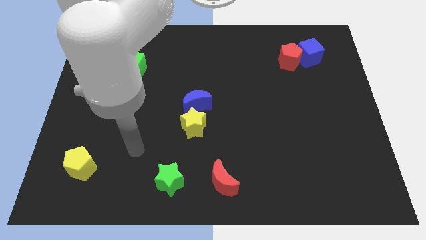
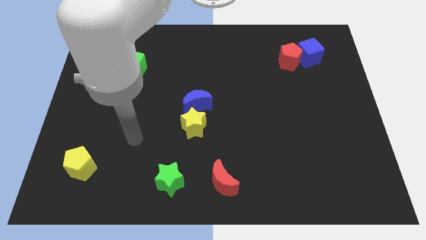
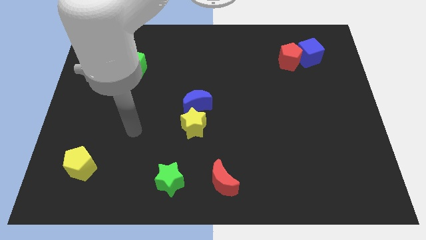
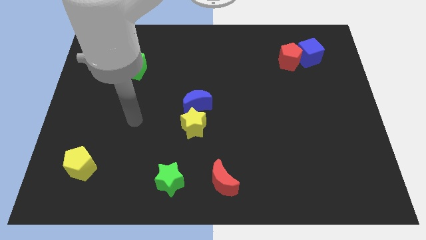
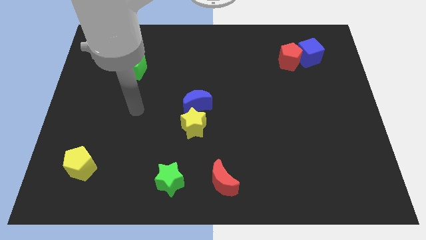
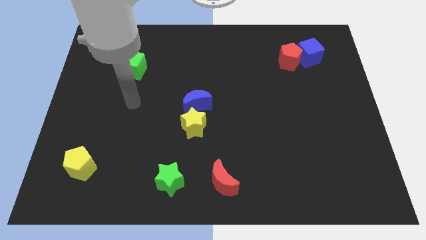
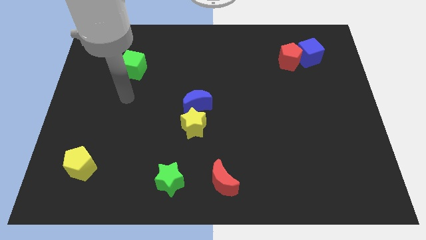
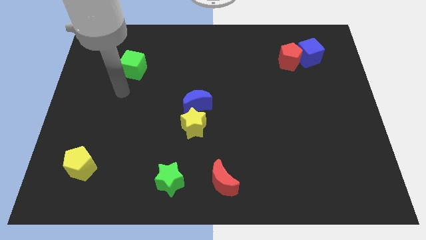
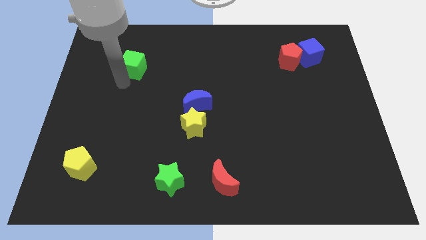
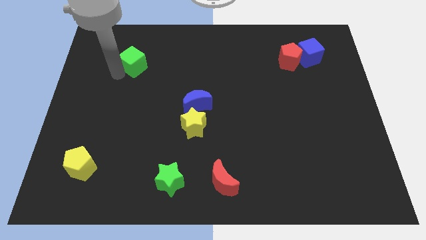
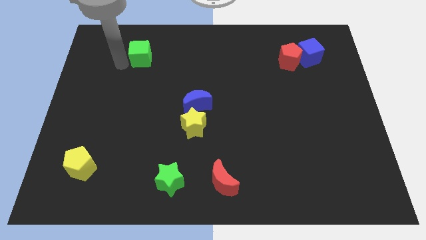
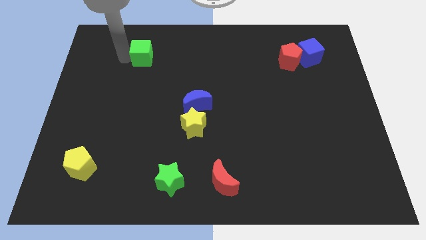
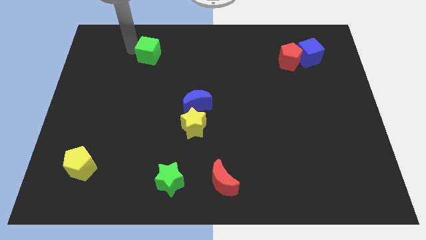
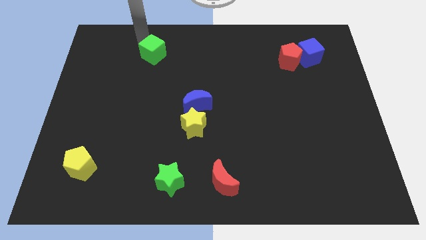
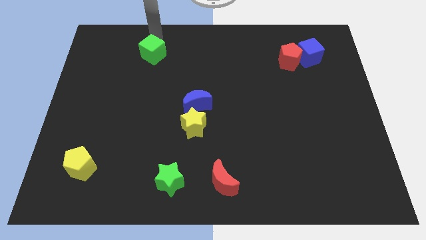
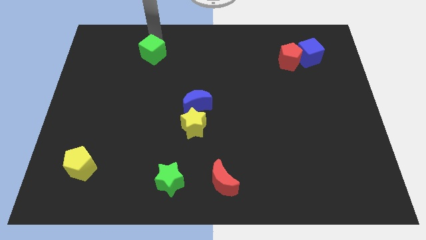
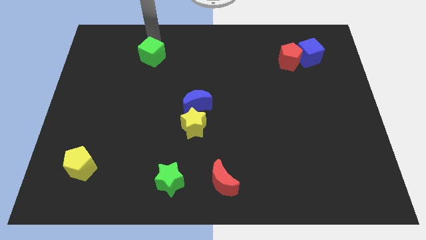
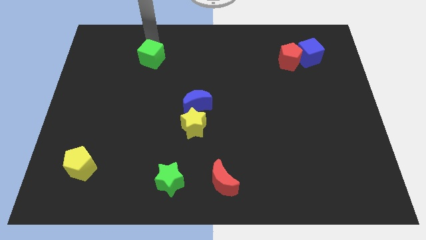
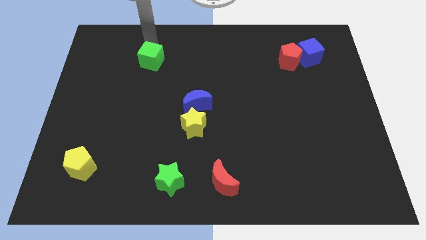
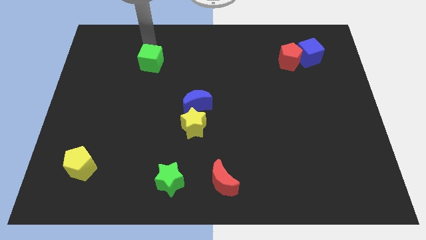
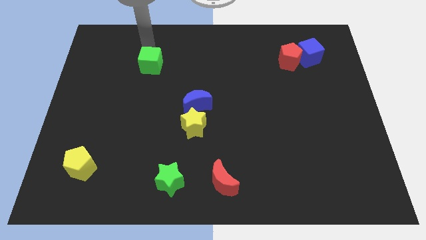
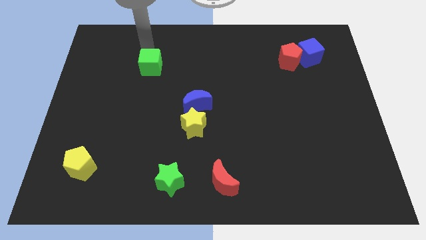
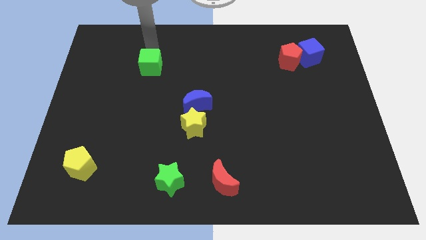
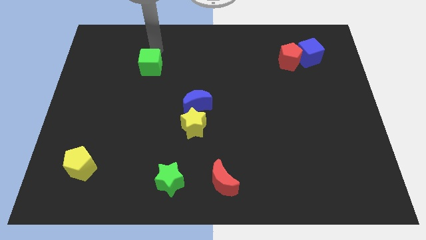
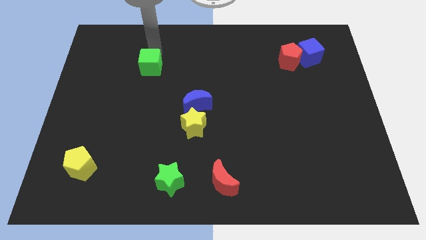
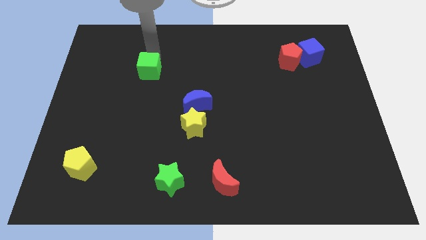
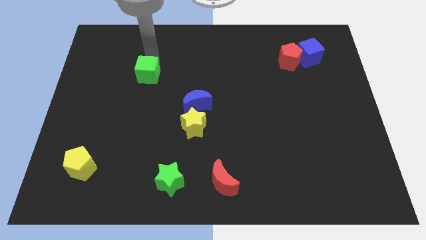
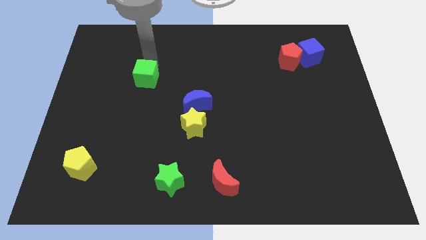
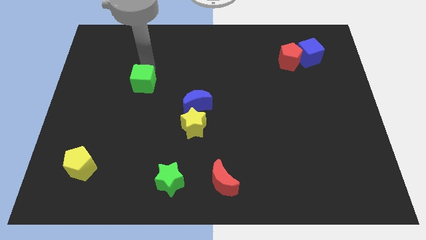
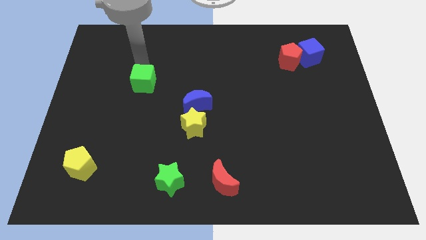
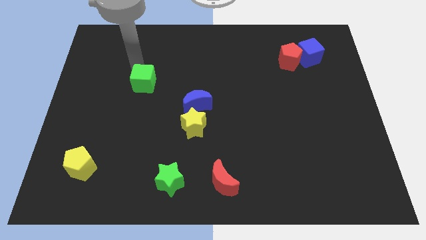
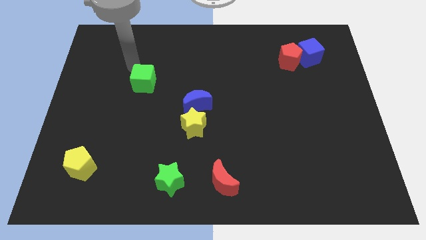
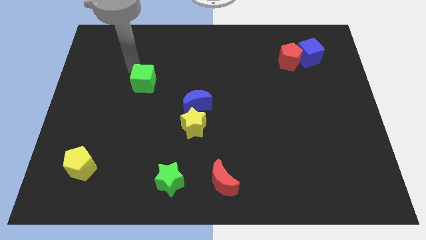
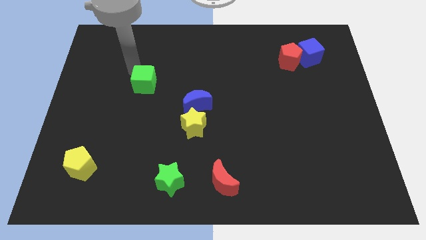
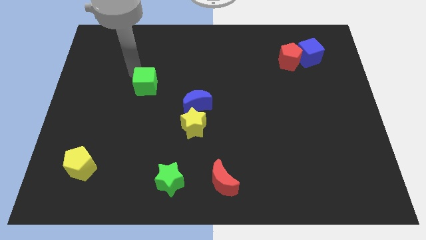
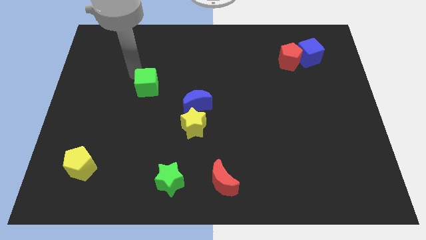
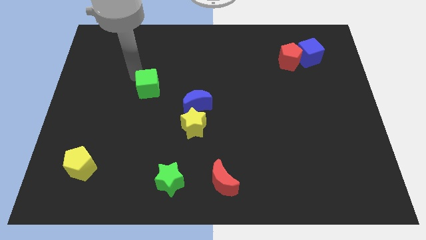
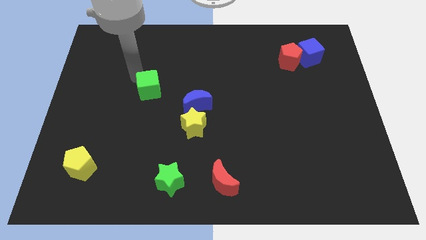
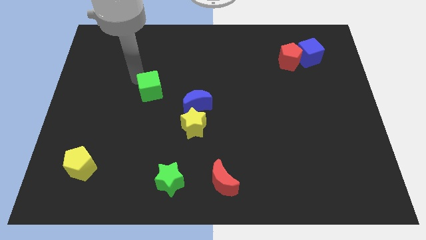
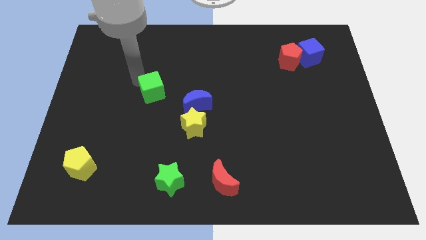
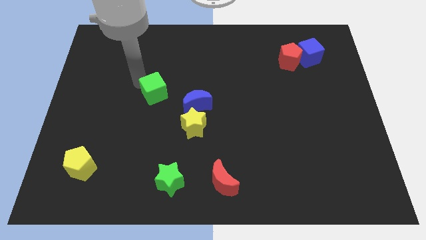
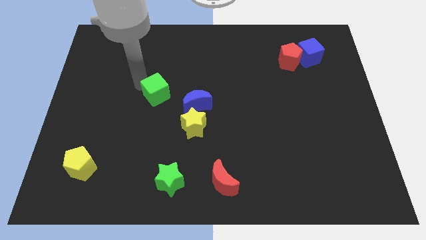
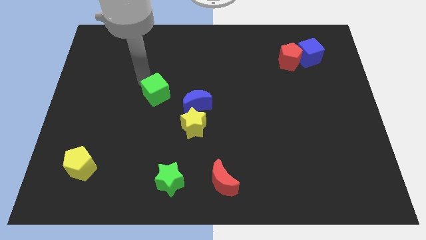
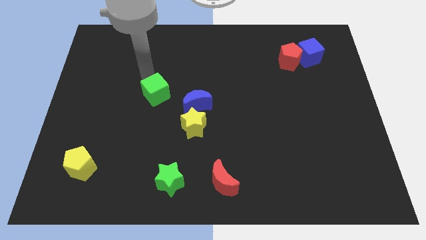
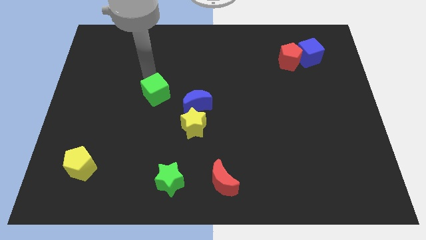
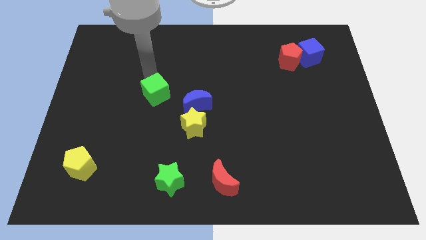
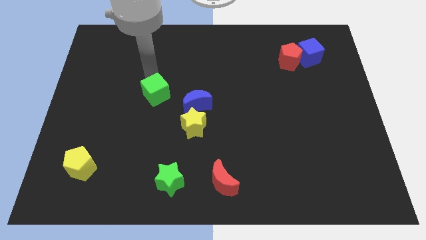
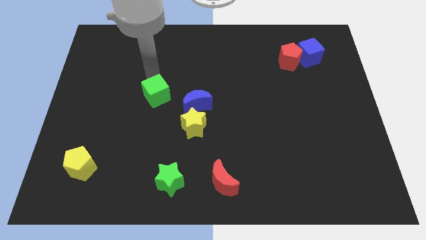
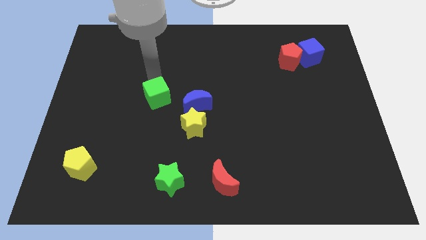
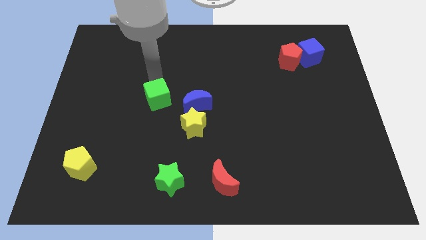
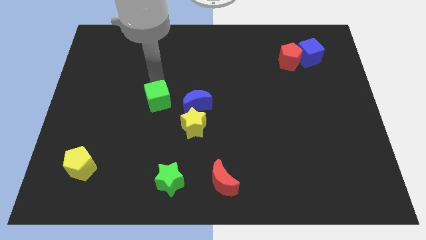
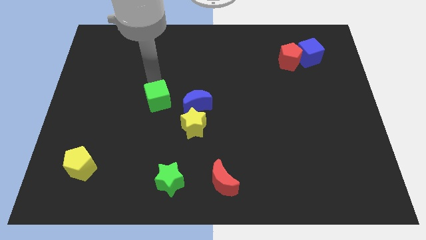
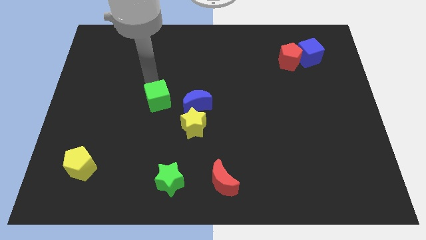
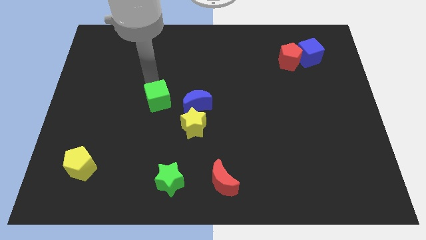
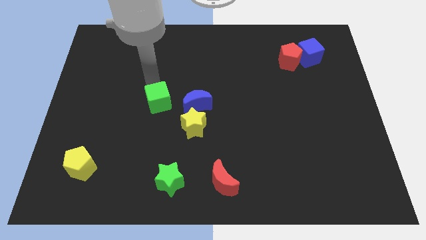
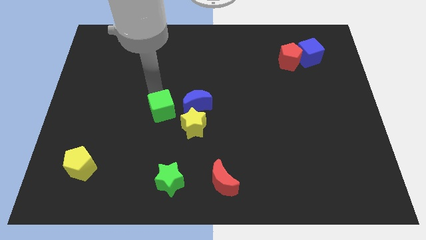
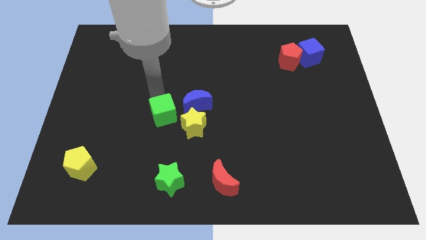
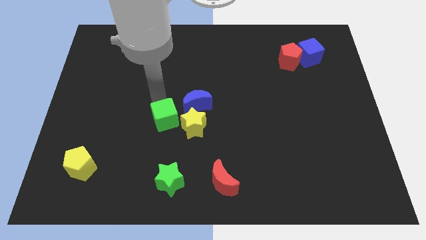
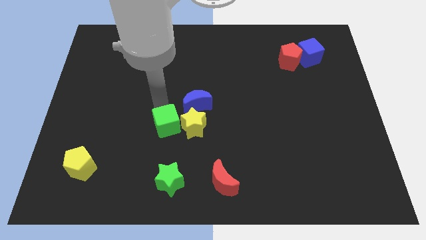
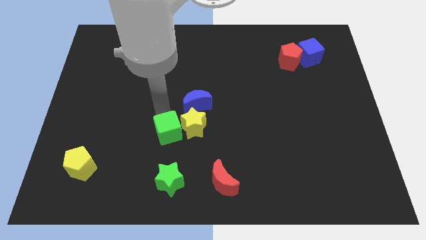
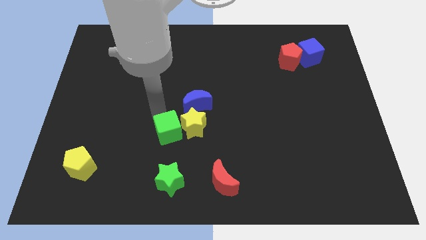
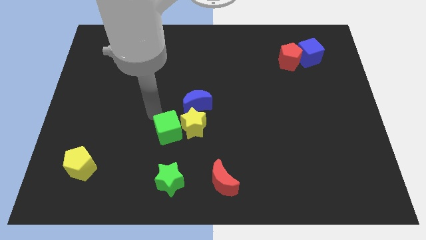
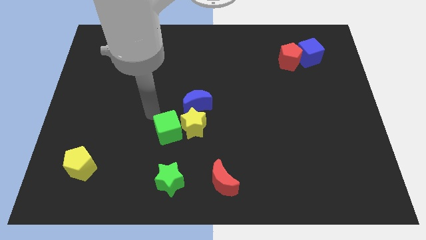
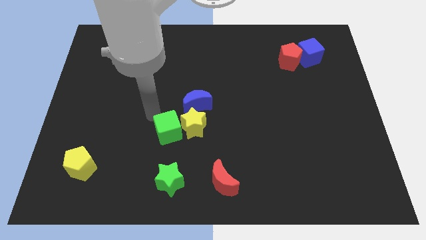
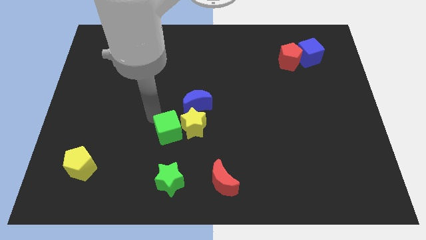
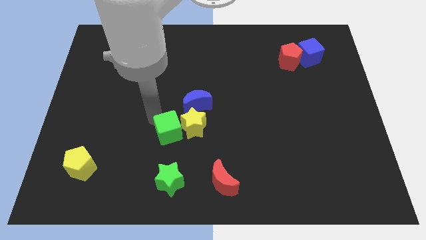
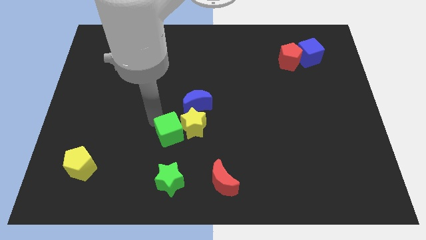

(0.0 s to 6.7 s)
push the green cube down and then to the right

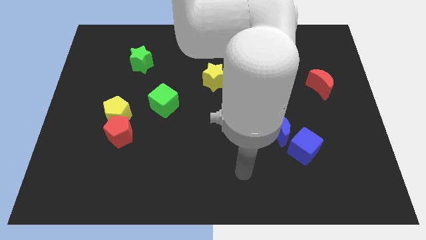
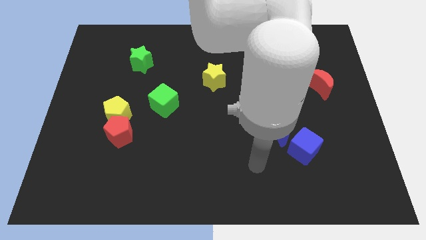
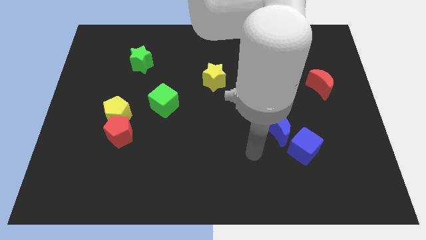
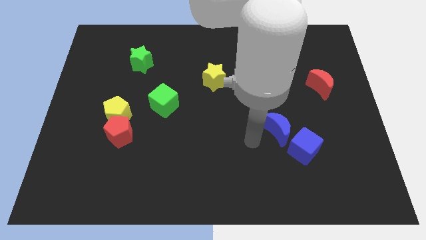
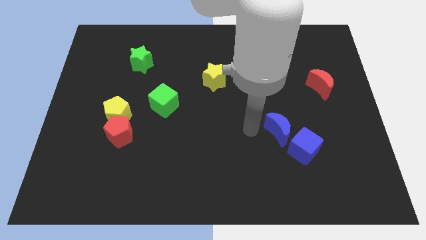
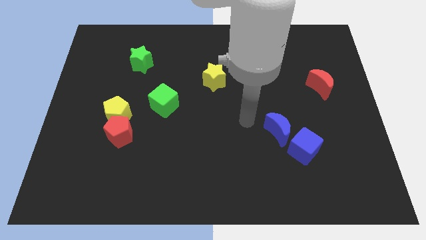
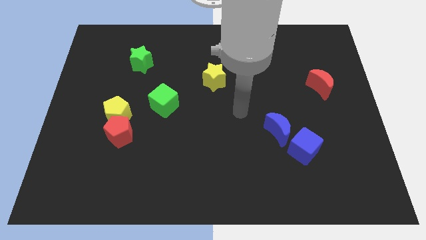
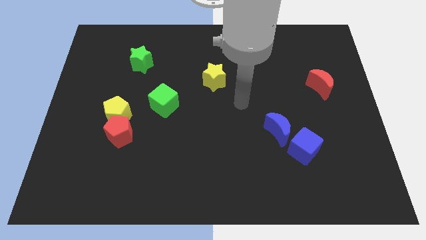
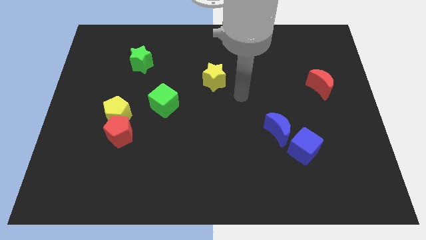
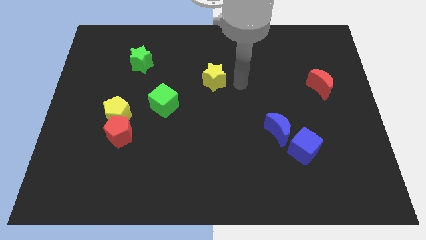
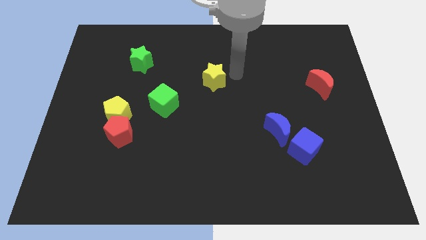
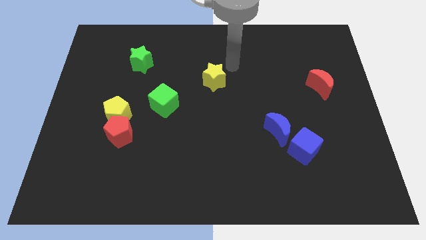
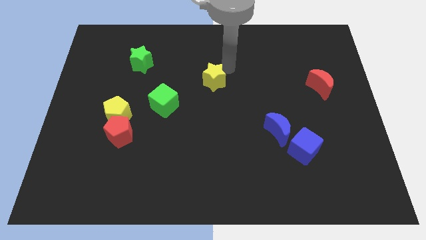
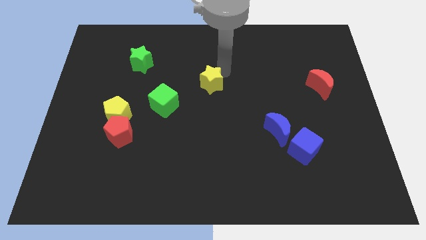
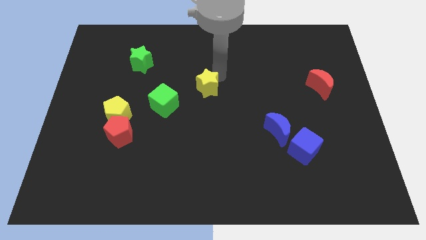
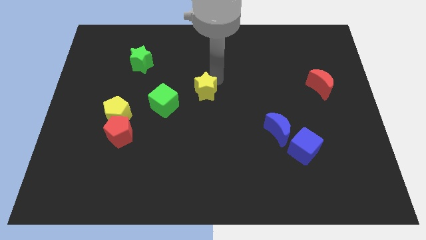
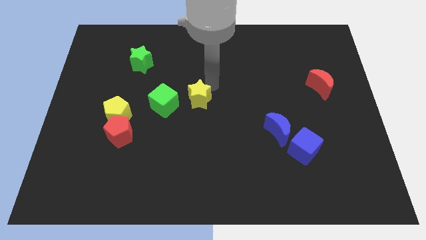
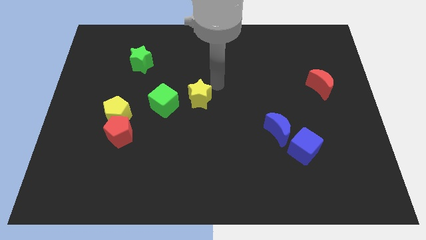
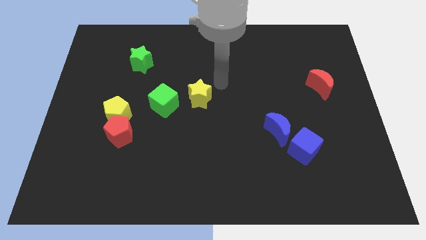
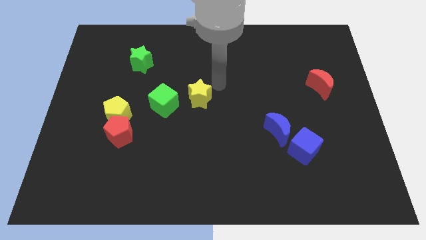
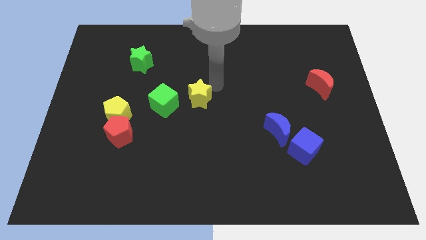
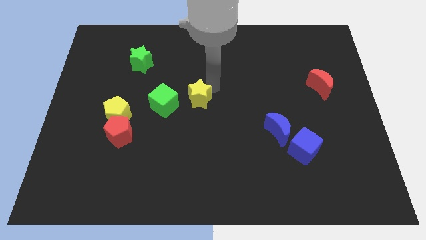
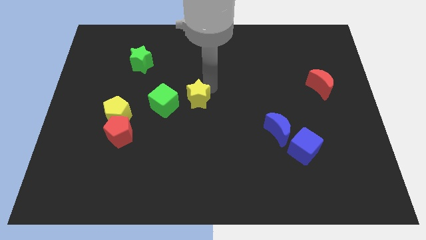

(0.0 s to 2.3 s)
push the yellow star a bit downwards and to the left diagonally
